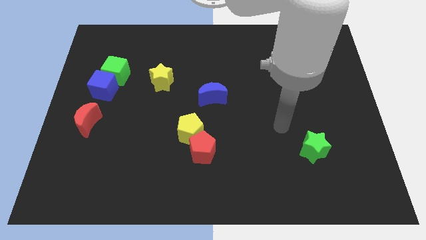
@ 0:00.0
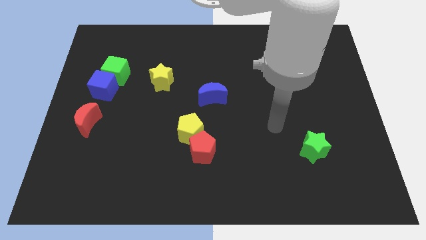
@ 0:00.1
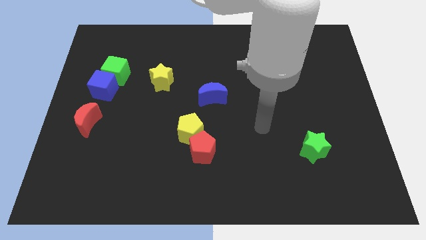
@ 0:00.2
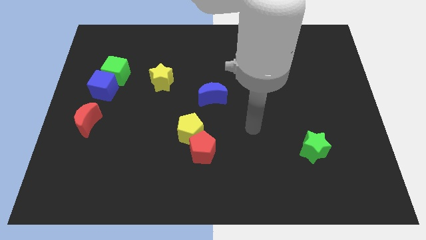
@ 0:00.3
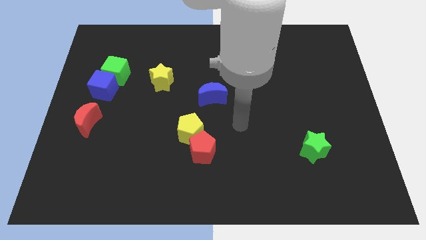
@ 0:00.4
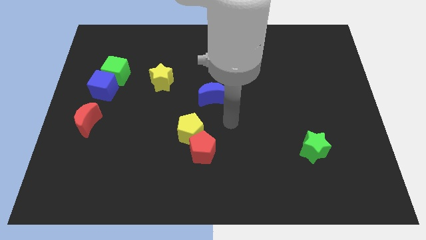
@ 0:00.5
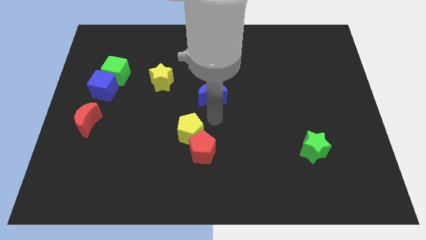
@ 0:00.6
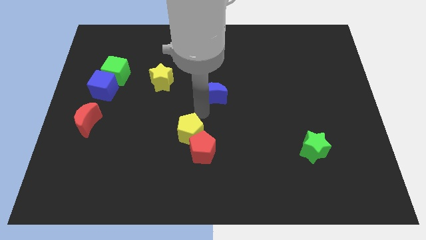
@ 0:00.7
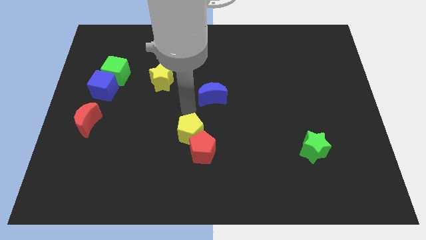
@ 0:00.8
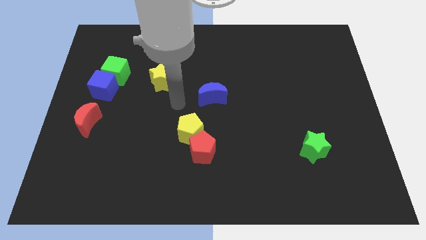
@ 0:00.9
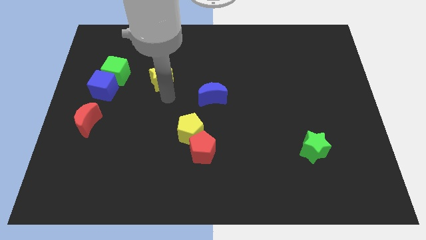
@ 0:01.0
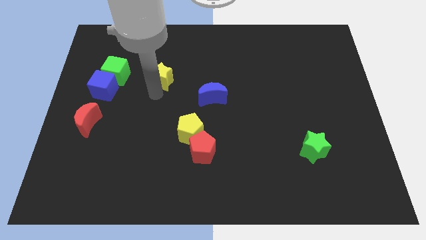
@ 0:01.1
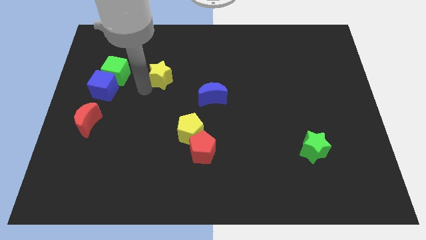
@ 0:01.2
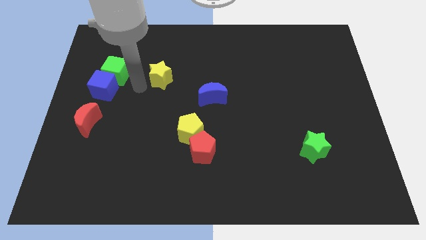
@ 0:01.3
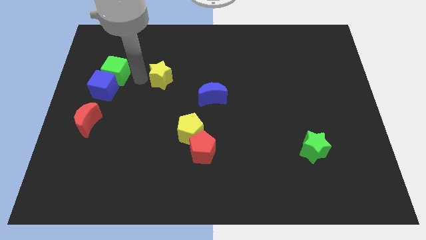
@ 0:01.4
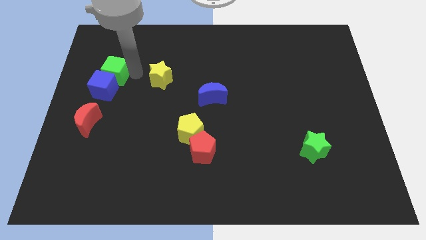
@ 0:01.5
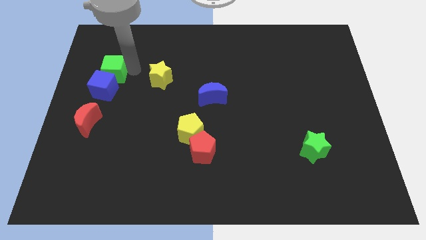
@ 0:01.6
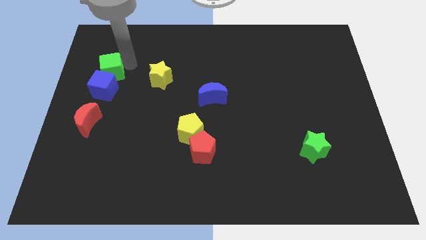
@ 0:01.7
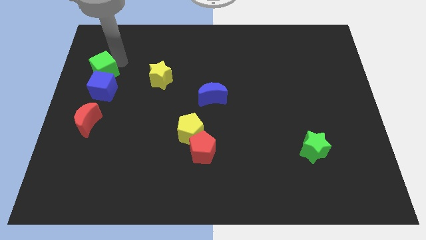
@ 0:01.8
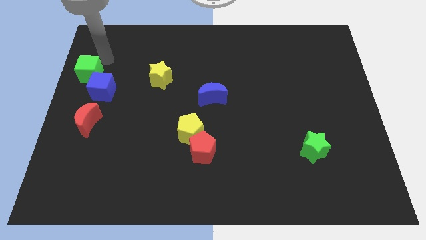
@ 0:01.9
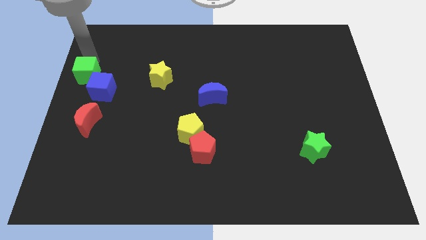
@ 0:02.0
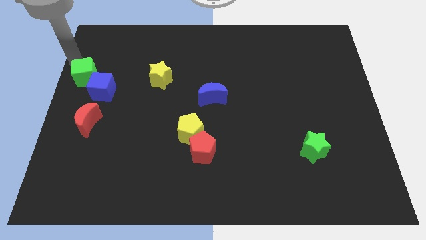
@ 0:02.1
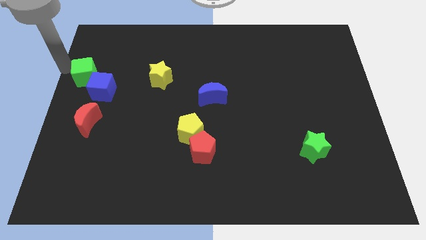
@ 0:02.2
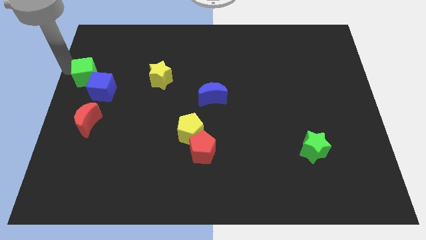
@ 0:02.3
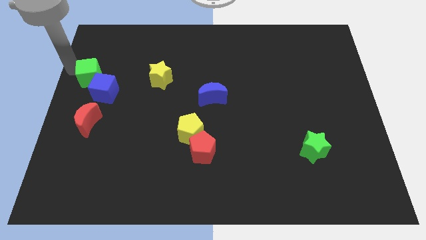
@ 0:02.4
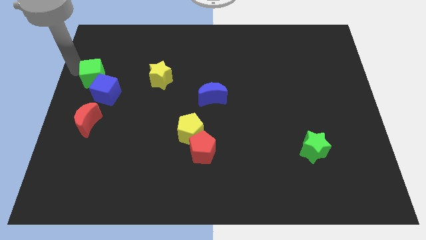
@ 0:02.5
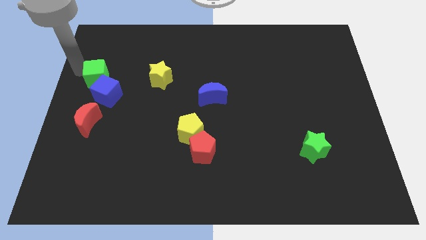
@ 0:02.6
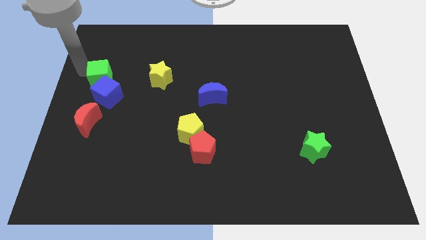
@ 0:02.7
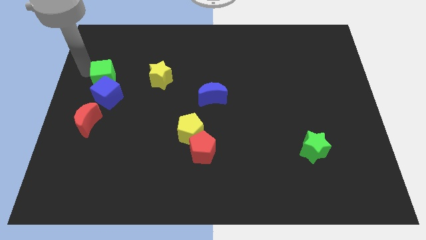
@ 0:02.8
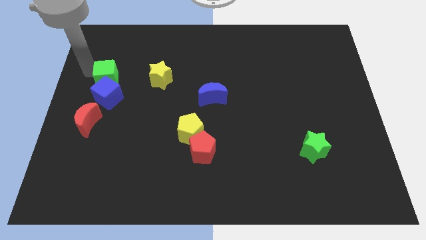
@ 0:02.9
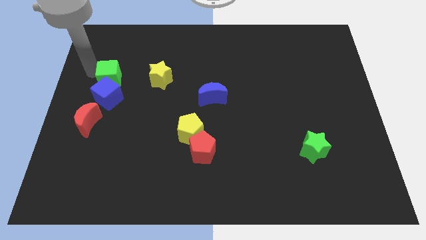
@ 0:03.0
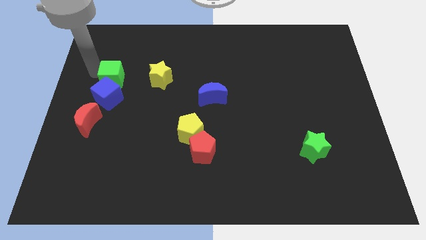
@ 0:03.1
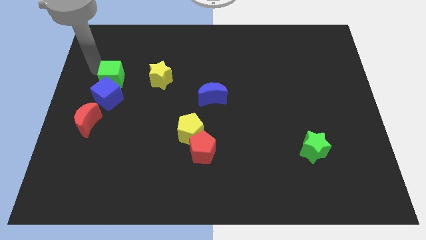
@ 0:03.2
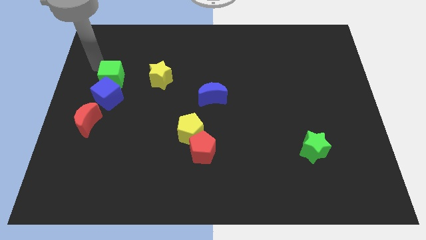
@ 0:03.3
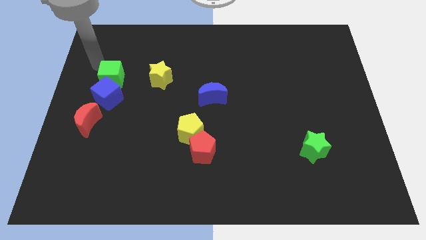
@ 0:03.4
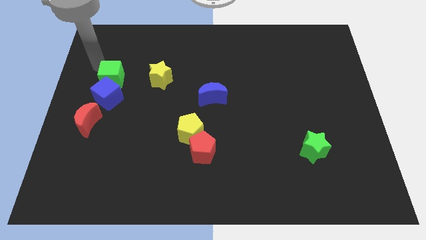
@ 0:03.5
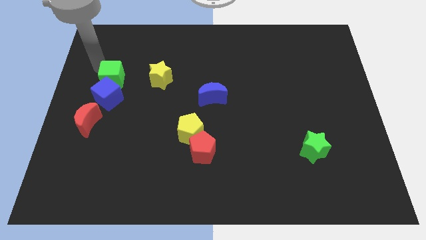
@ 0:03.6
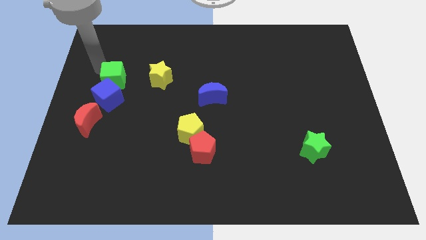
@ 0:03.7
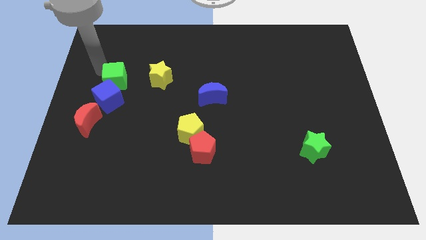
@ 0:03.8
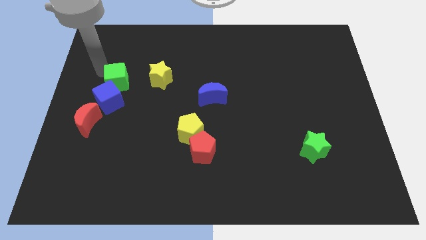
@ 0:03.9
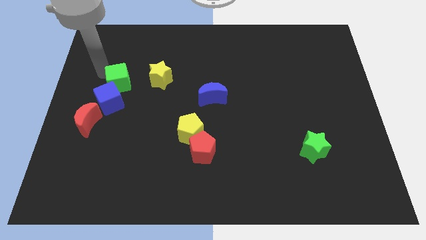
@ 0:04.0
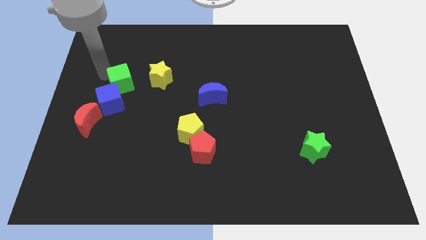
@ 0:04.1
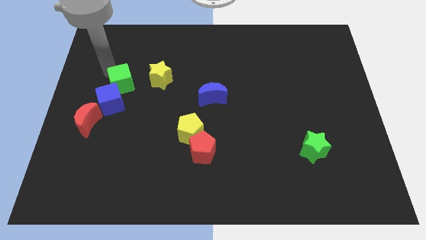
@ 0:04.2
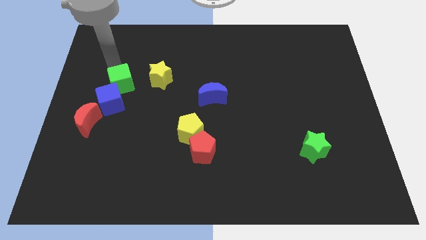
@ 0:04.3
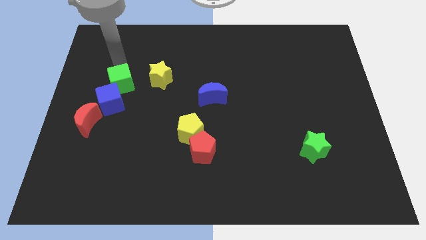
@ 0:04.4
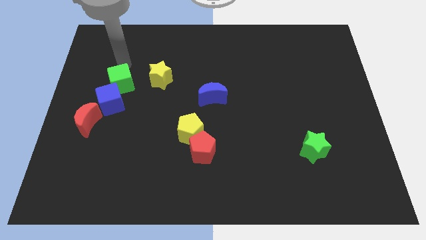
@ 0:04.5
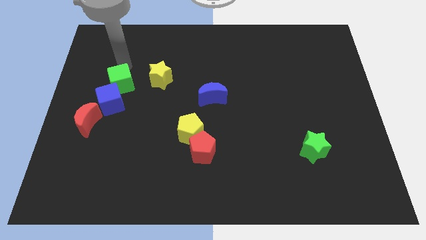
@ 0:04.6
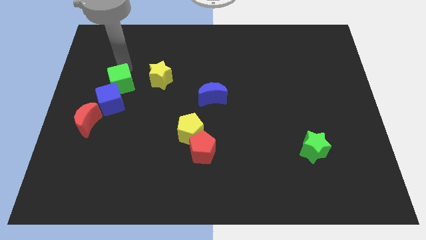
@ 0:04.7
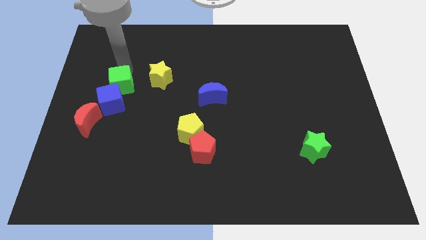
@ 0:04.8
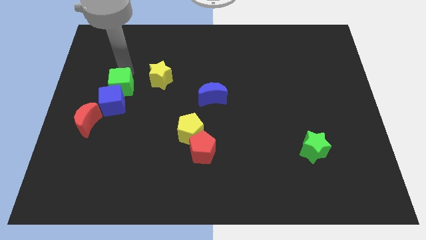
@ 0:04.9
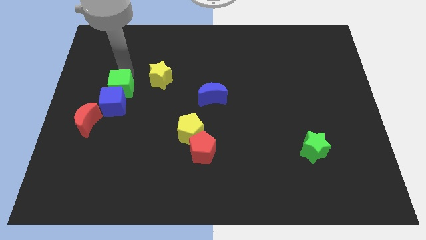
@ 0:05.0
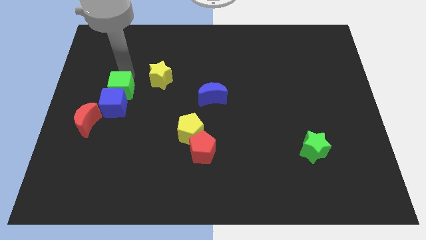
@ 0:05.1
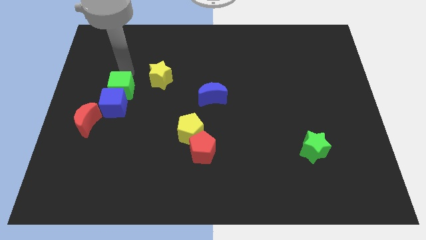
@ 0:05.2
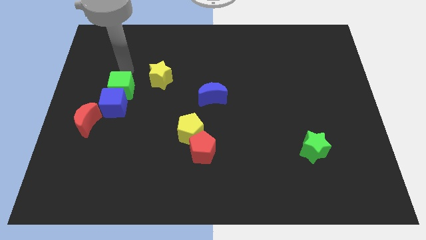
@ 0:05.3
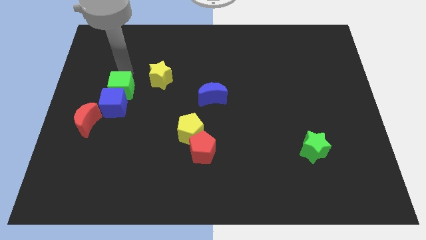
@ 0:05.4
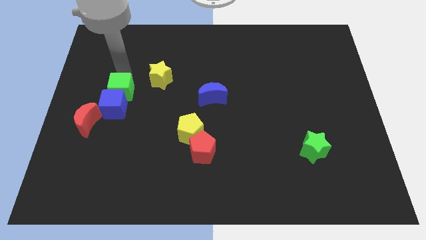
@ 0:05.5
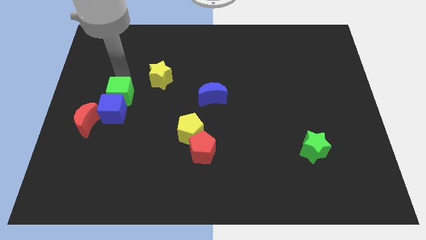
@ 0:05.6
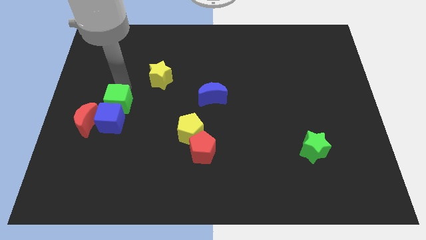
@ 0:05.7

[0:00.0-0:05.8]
move the green cube downwards slightly

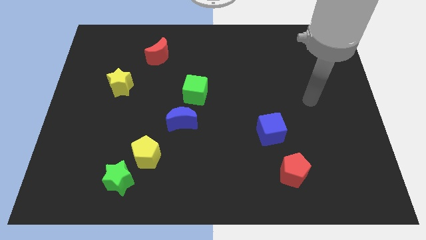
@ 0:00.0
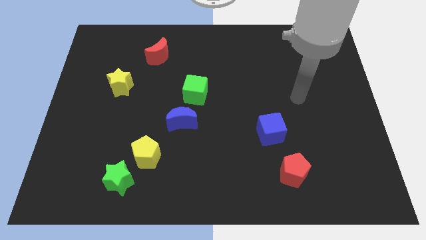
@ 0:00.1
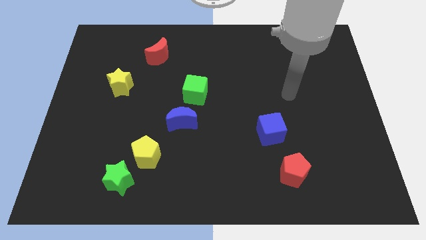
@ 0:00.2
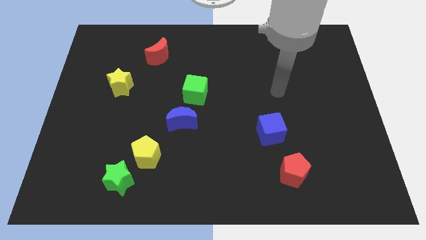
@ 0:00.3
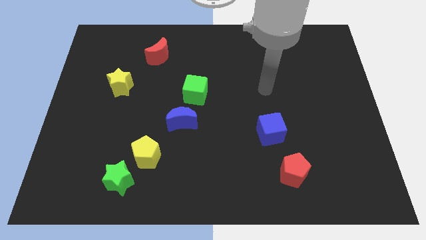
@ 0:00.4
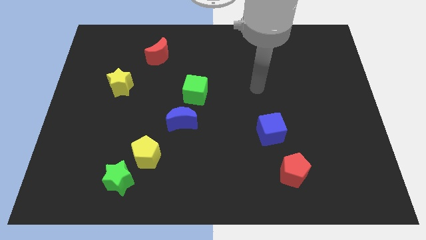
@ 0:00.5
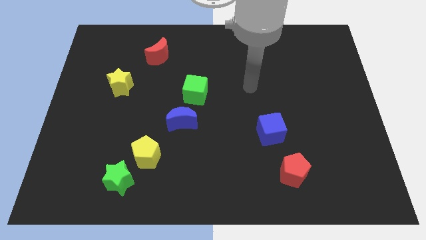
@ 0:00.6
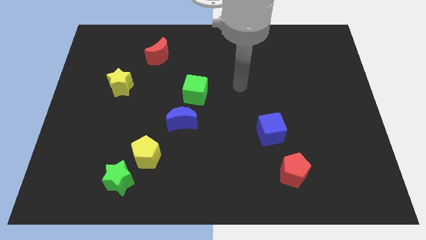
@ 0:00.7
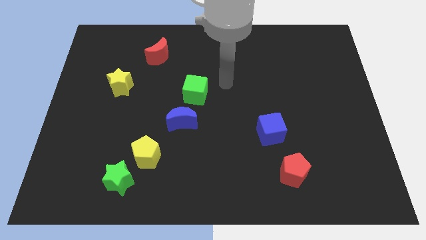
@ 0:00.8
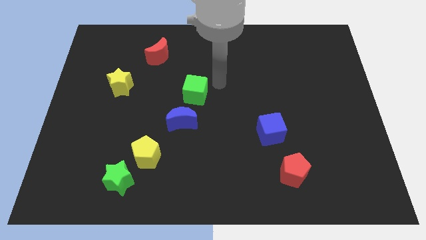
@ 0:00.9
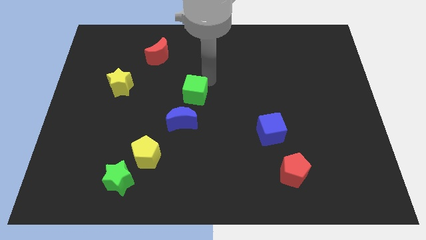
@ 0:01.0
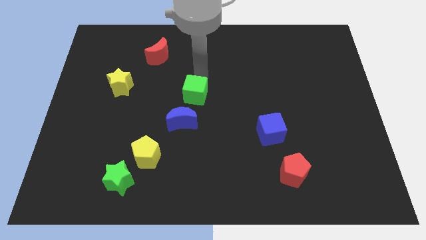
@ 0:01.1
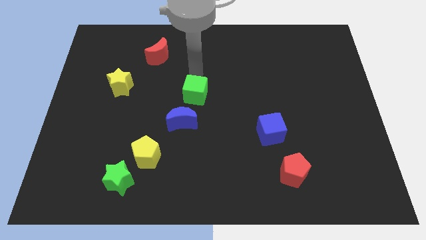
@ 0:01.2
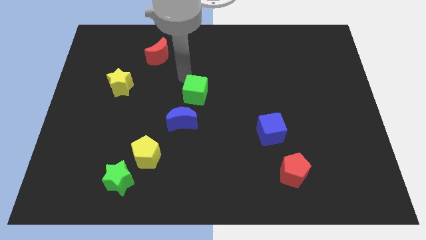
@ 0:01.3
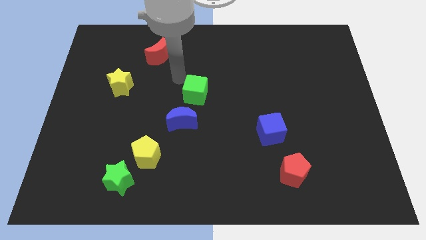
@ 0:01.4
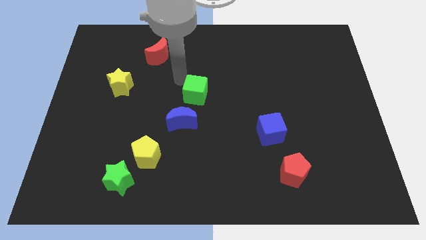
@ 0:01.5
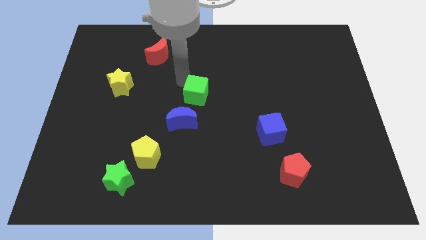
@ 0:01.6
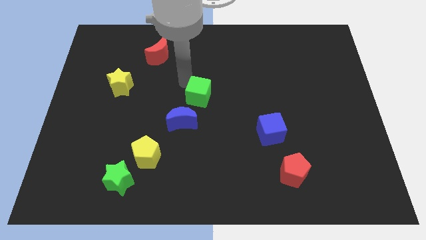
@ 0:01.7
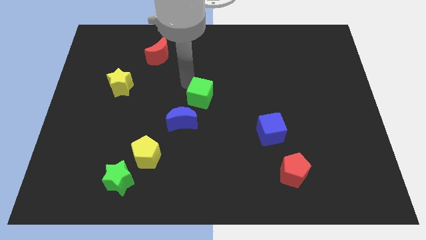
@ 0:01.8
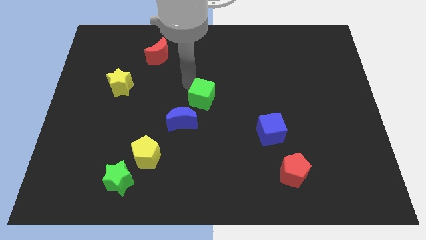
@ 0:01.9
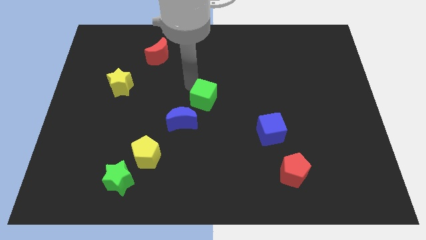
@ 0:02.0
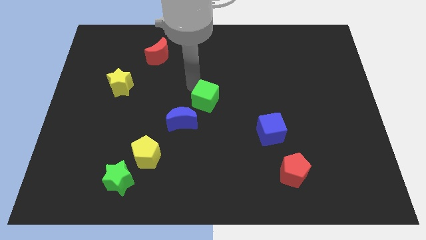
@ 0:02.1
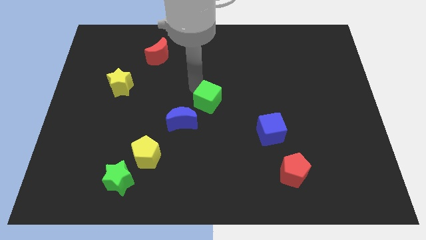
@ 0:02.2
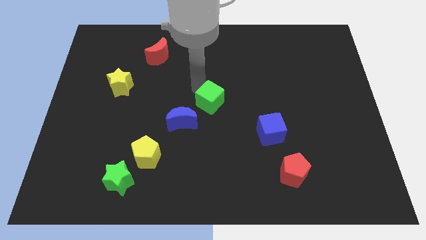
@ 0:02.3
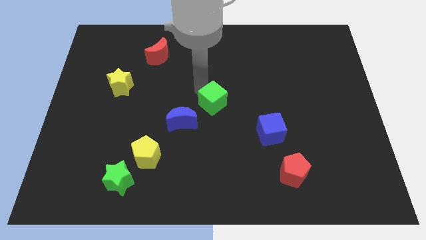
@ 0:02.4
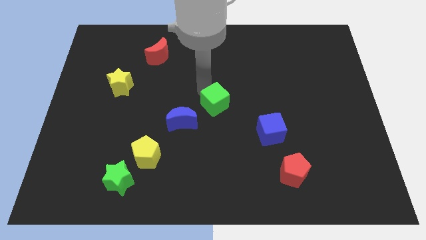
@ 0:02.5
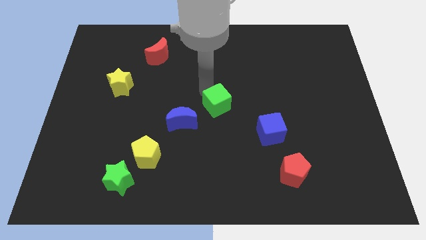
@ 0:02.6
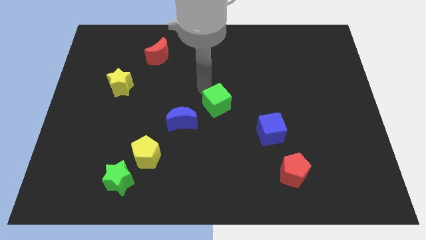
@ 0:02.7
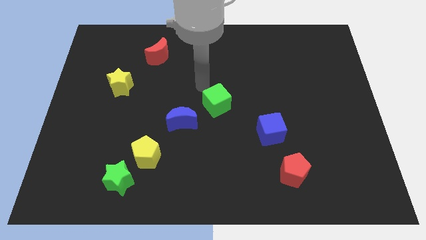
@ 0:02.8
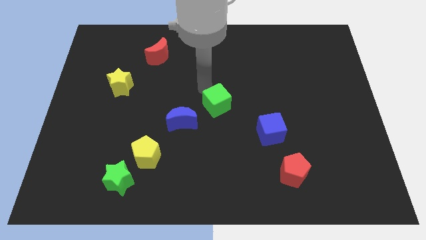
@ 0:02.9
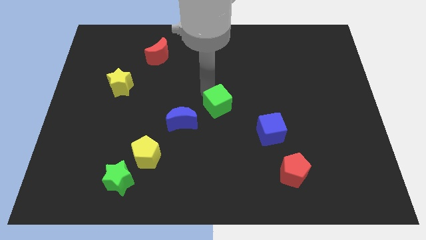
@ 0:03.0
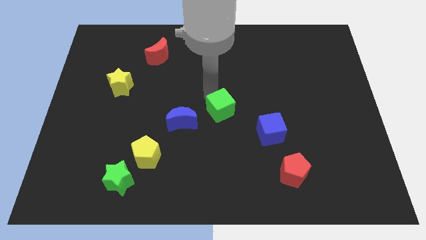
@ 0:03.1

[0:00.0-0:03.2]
push the green cube a little down and then to the right
